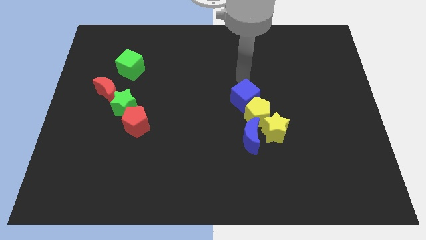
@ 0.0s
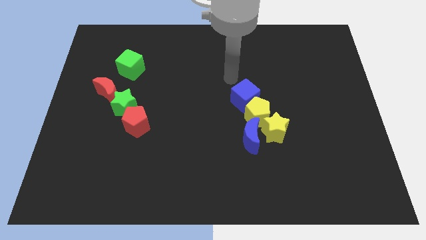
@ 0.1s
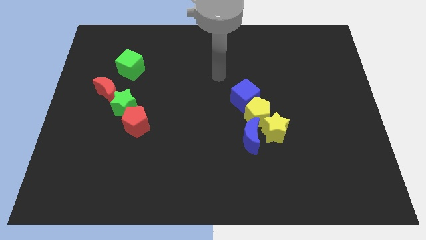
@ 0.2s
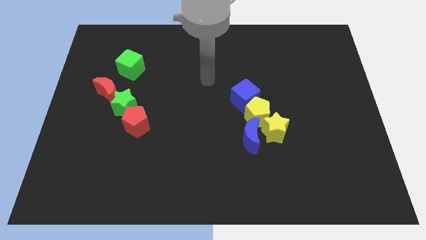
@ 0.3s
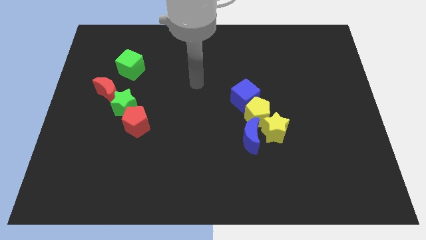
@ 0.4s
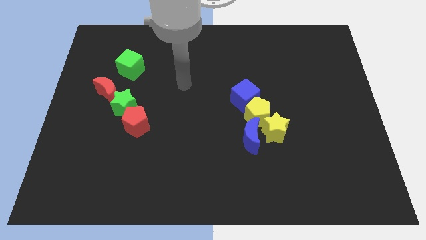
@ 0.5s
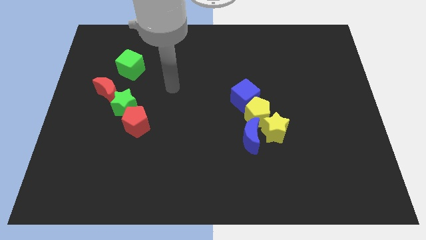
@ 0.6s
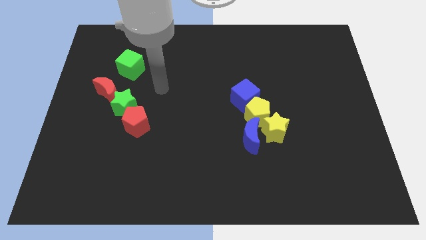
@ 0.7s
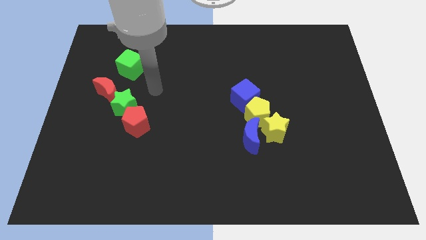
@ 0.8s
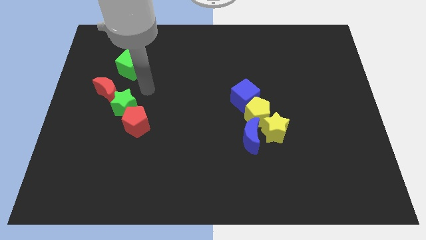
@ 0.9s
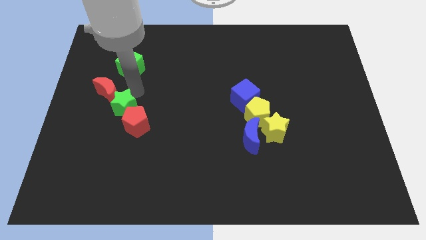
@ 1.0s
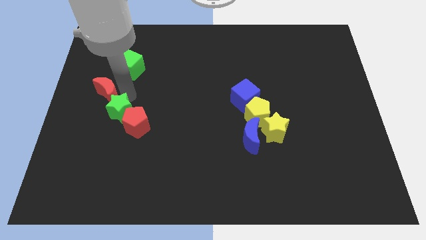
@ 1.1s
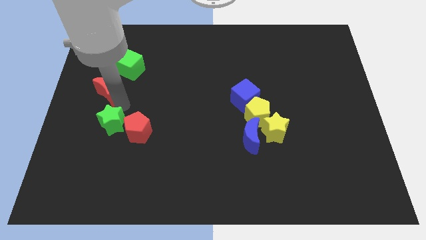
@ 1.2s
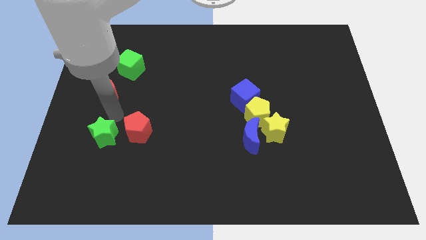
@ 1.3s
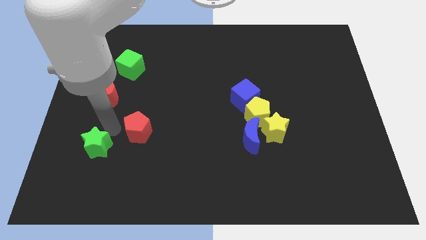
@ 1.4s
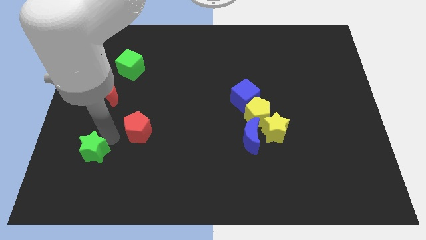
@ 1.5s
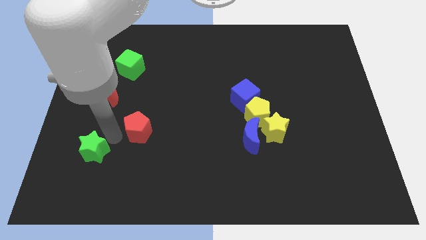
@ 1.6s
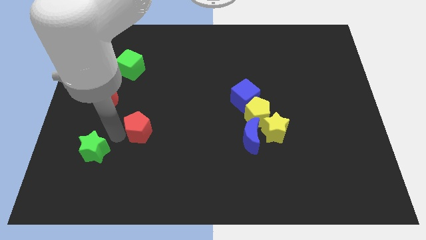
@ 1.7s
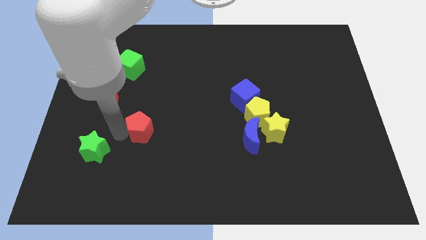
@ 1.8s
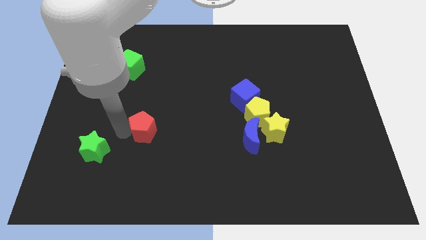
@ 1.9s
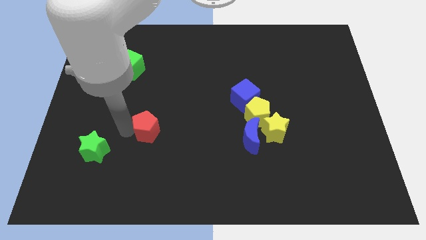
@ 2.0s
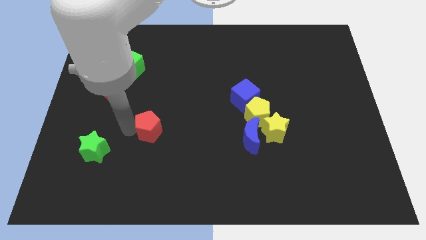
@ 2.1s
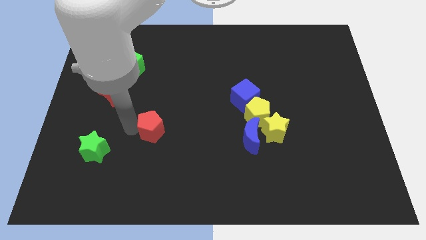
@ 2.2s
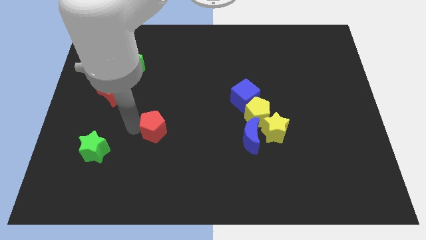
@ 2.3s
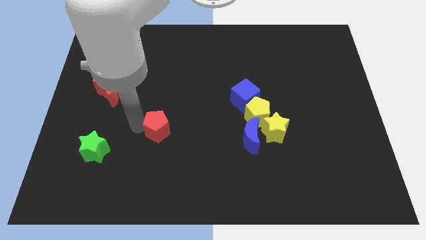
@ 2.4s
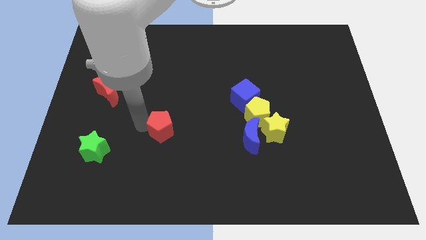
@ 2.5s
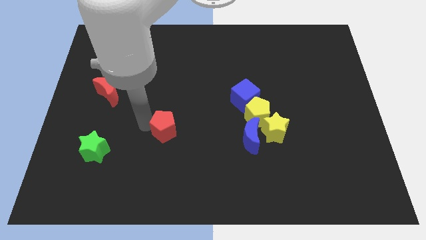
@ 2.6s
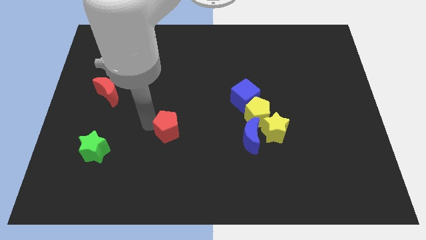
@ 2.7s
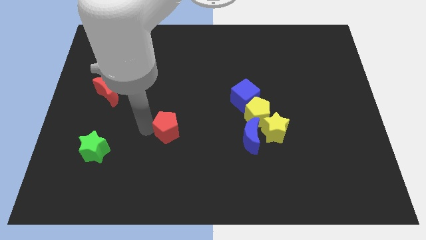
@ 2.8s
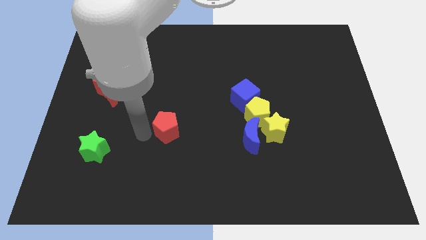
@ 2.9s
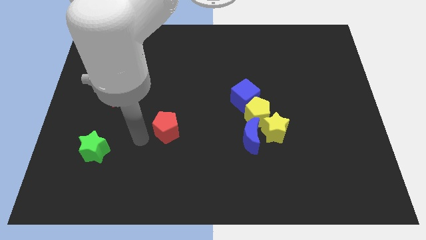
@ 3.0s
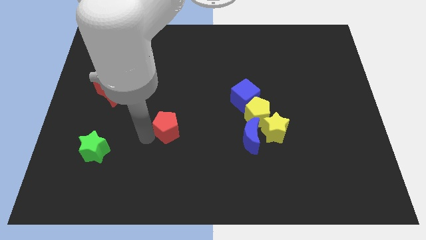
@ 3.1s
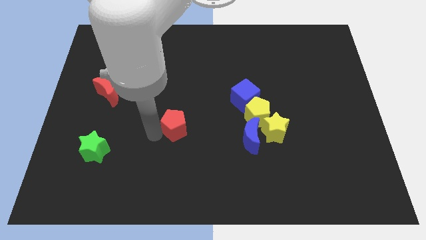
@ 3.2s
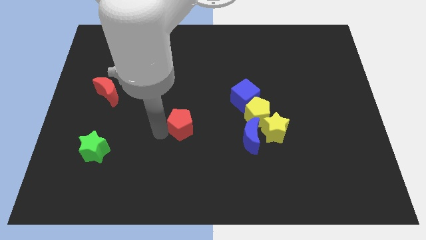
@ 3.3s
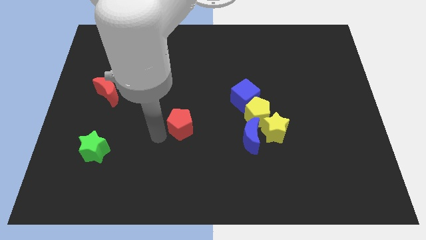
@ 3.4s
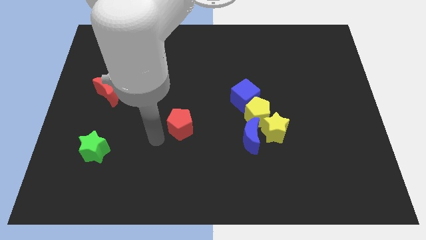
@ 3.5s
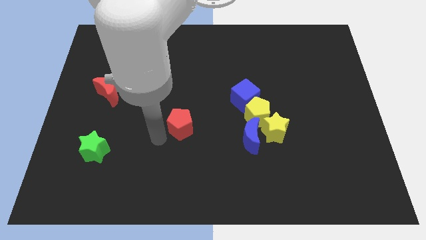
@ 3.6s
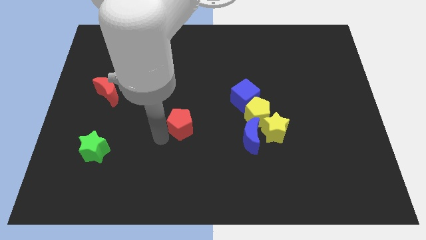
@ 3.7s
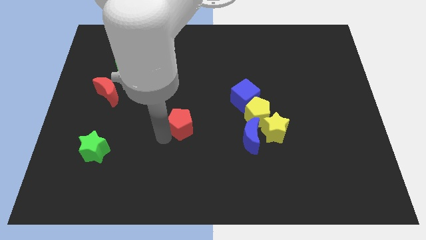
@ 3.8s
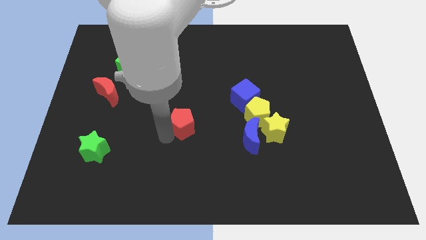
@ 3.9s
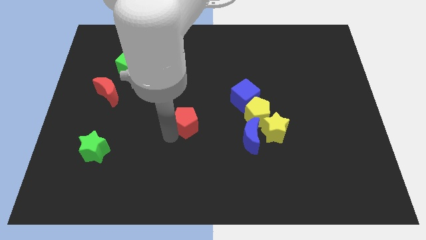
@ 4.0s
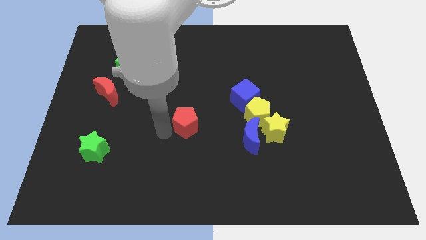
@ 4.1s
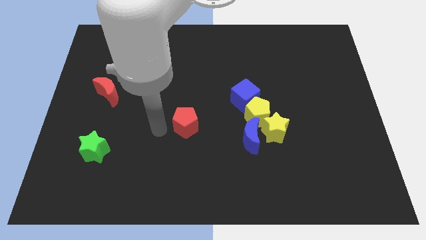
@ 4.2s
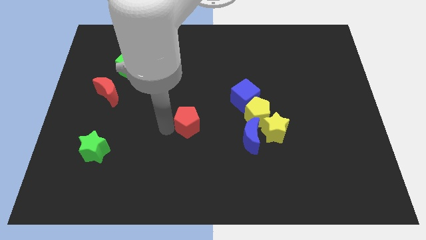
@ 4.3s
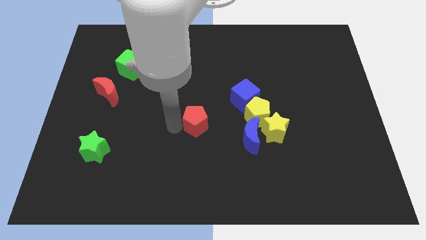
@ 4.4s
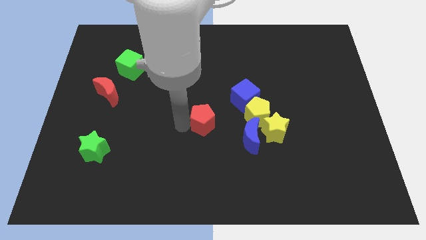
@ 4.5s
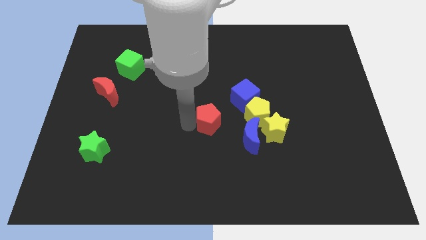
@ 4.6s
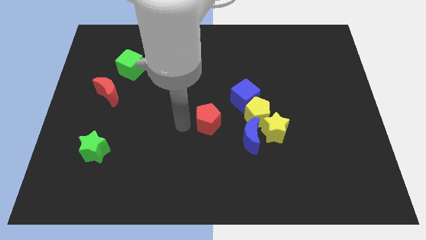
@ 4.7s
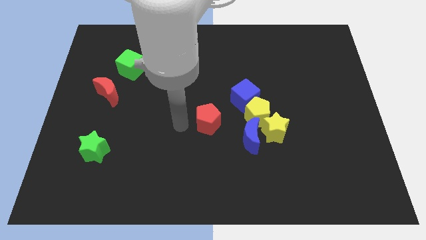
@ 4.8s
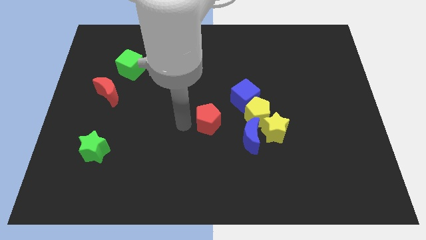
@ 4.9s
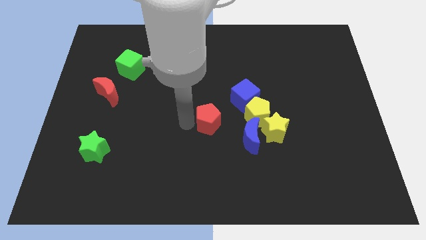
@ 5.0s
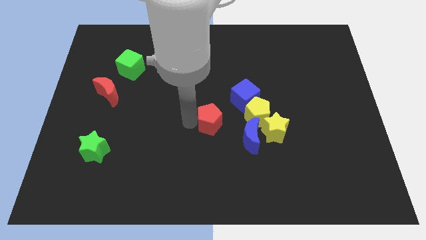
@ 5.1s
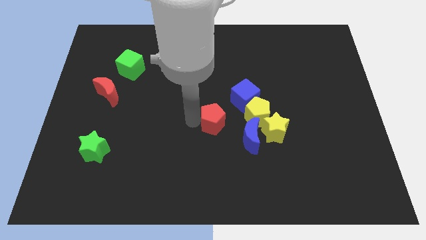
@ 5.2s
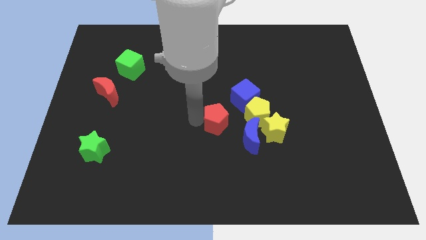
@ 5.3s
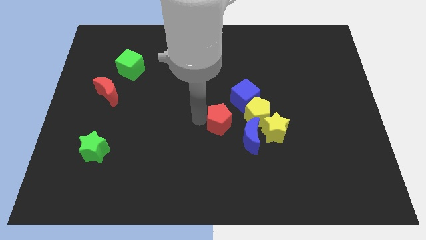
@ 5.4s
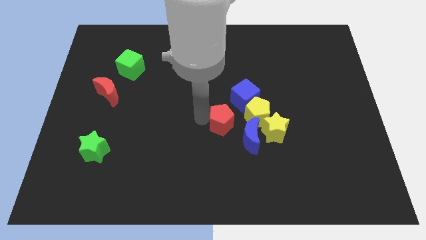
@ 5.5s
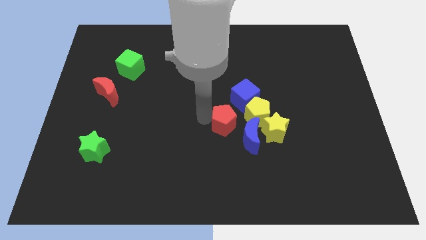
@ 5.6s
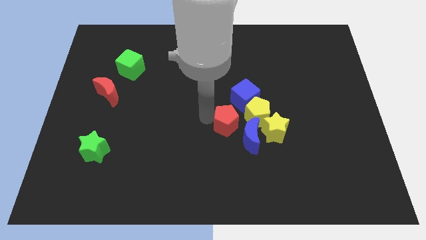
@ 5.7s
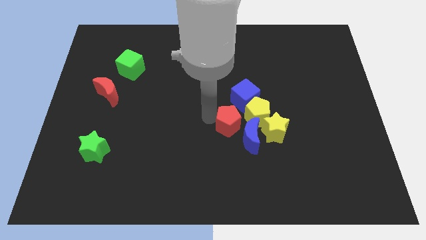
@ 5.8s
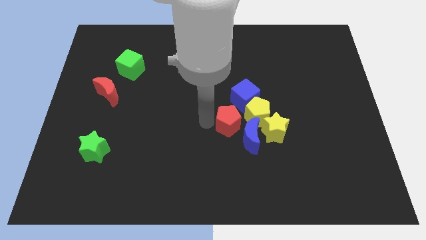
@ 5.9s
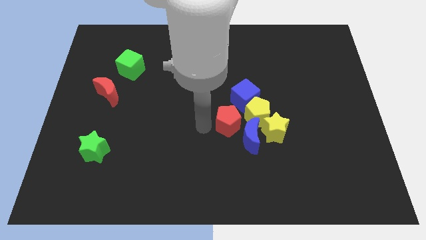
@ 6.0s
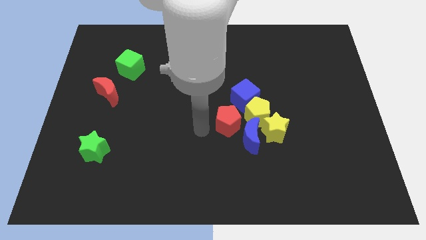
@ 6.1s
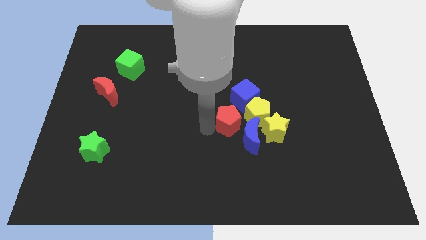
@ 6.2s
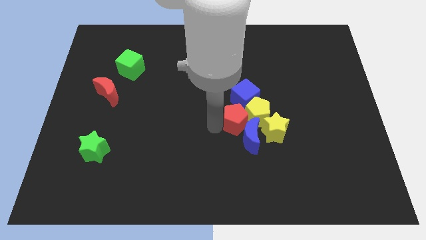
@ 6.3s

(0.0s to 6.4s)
move the red pentagon close to the yellow pentagon

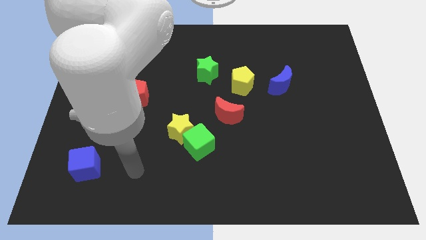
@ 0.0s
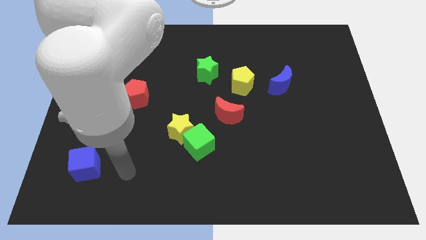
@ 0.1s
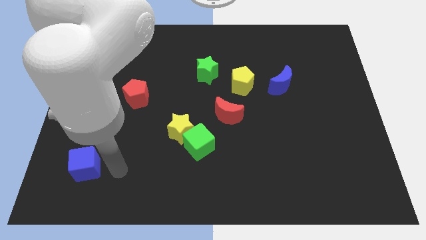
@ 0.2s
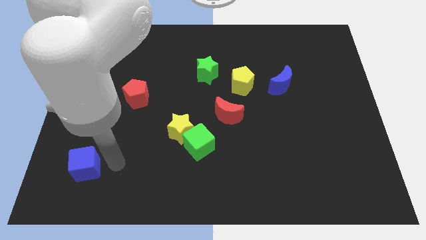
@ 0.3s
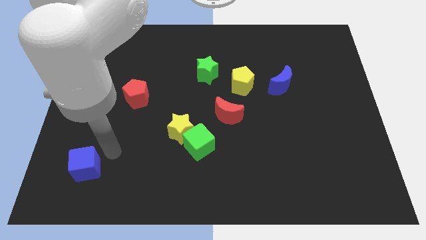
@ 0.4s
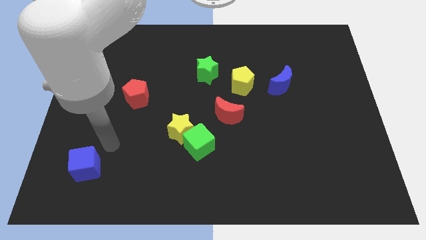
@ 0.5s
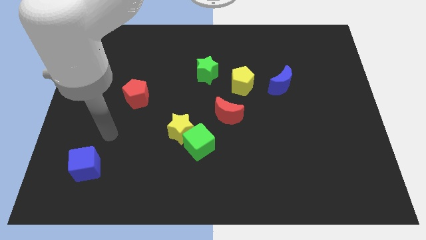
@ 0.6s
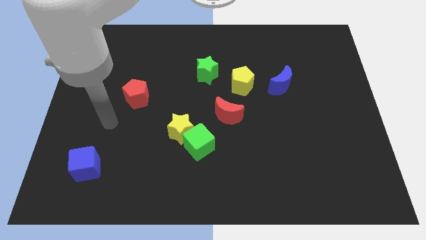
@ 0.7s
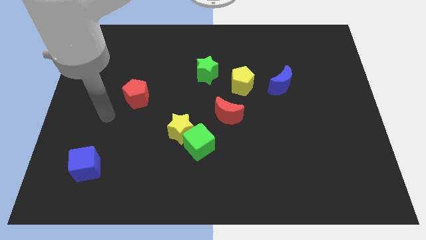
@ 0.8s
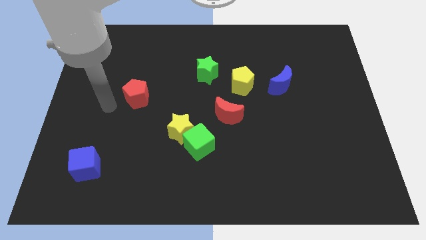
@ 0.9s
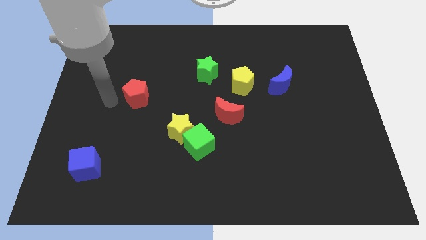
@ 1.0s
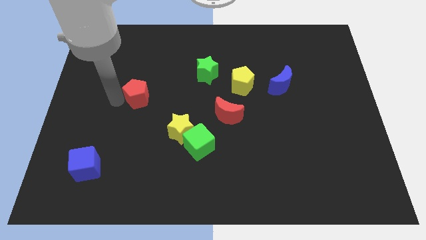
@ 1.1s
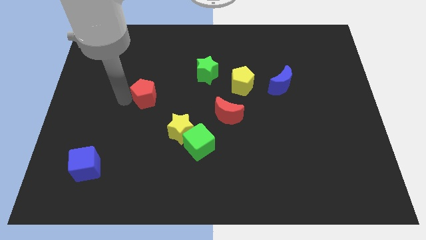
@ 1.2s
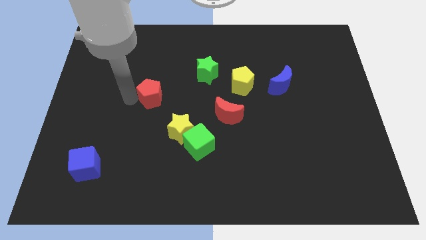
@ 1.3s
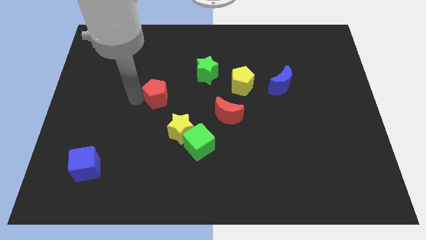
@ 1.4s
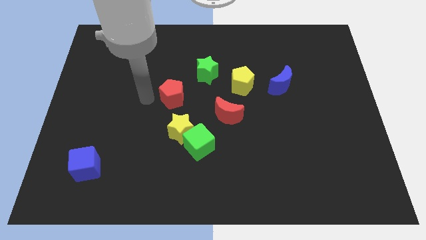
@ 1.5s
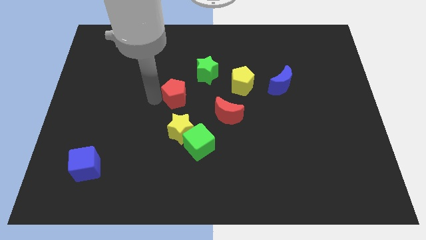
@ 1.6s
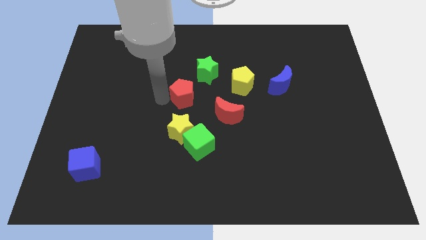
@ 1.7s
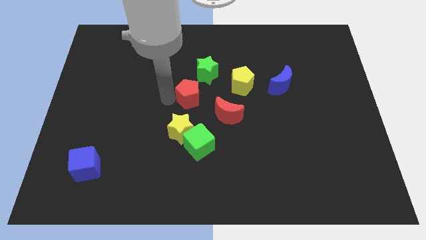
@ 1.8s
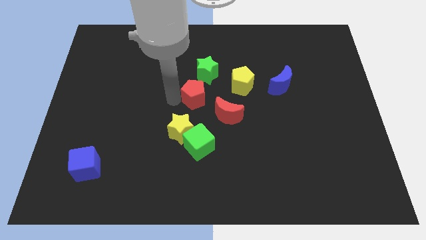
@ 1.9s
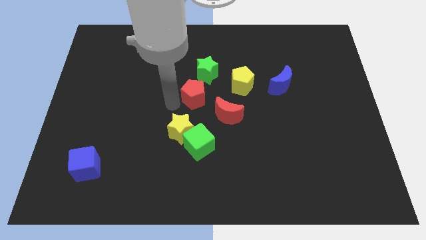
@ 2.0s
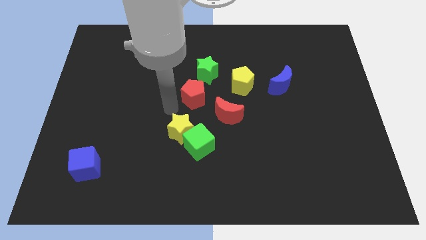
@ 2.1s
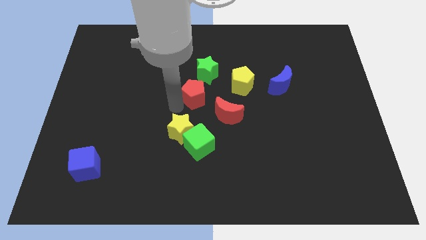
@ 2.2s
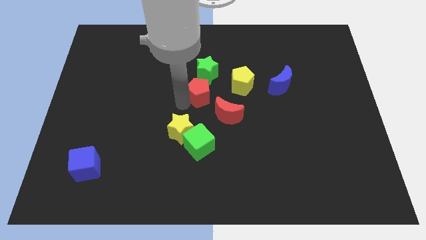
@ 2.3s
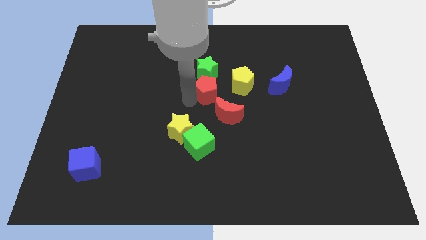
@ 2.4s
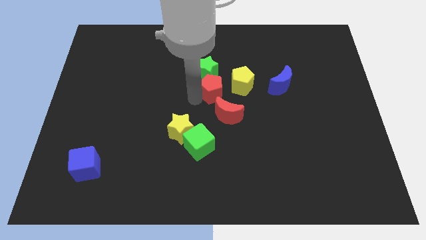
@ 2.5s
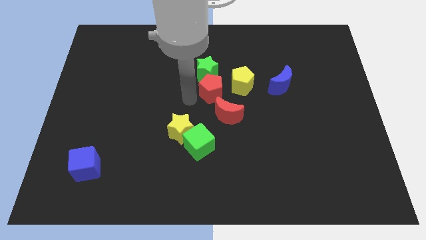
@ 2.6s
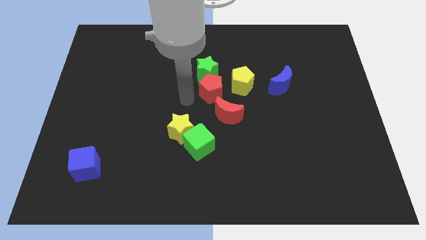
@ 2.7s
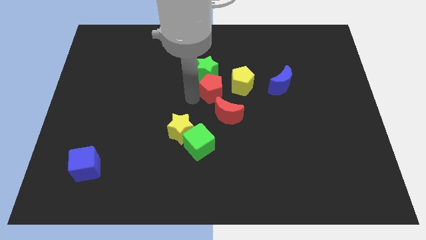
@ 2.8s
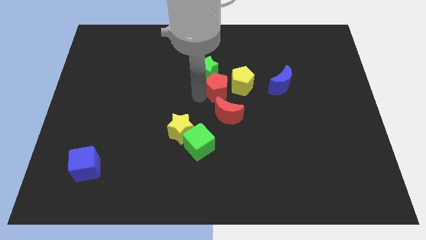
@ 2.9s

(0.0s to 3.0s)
push the red pentagon to the yellow pentagon
